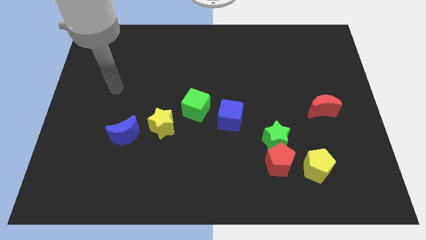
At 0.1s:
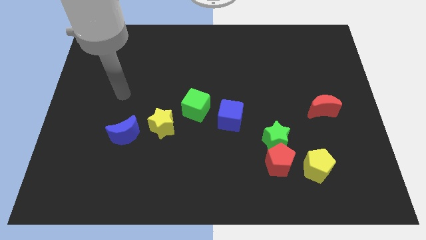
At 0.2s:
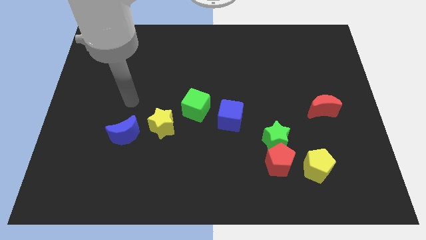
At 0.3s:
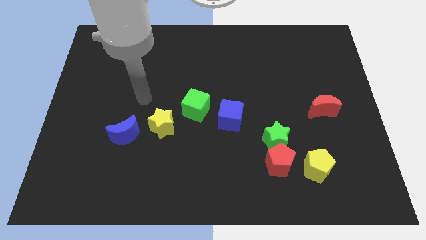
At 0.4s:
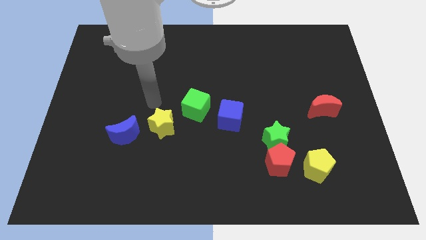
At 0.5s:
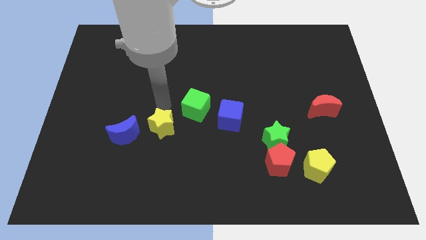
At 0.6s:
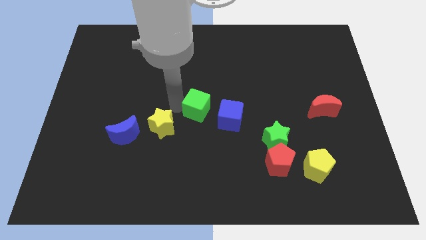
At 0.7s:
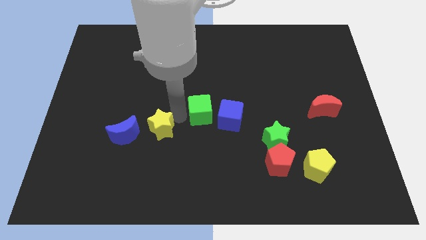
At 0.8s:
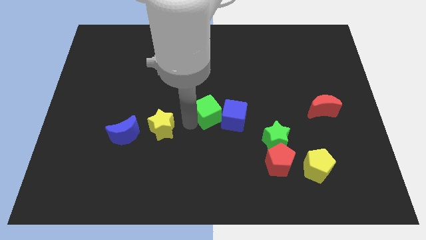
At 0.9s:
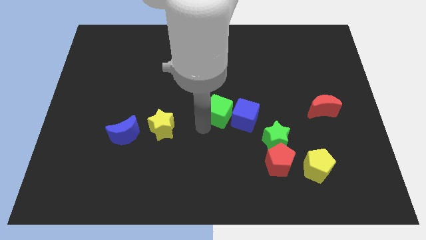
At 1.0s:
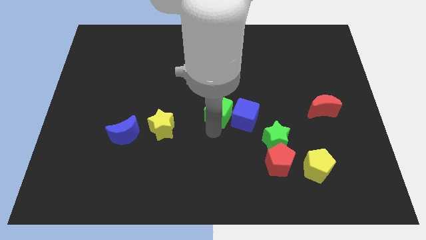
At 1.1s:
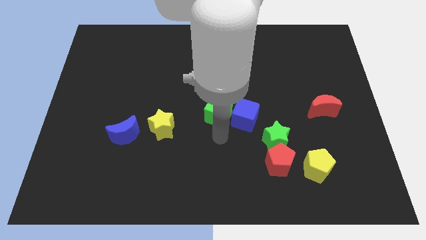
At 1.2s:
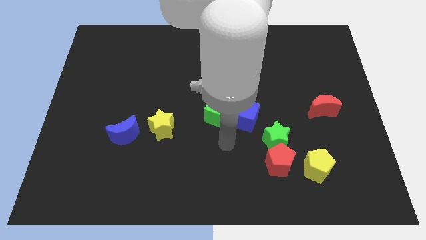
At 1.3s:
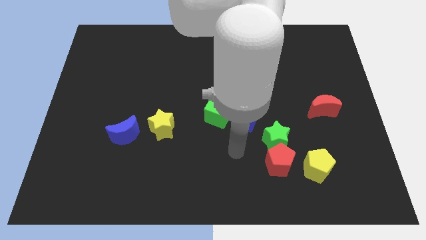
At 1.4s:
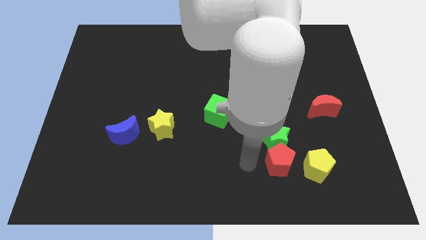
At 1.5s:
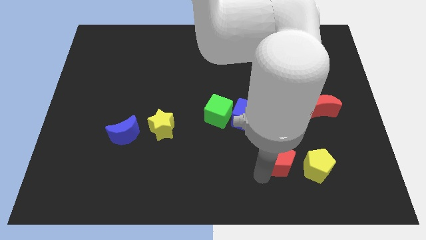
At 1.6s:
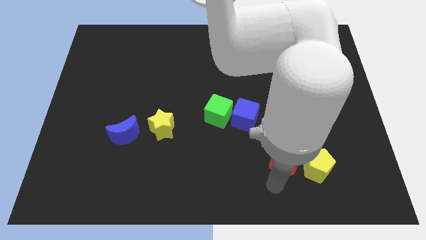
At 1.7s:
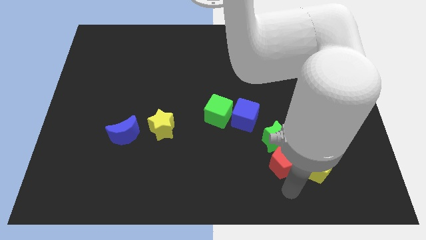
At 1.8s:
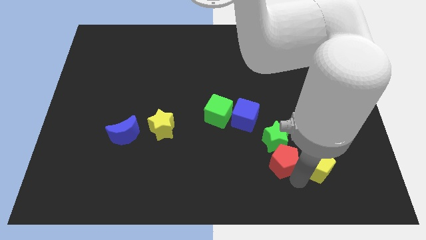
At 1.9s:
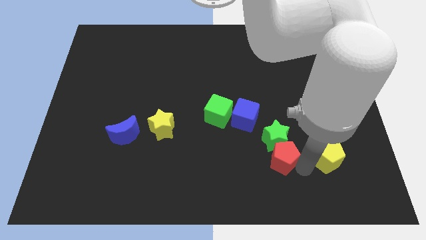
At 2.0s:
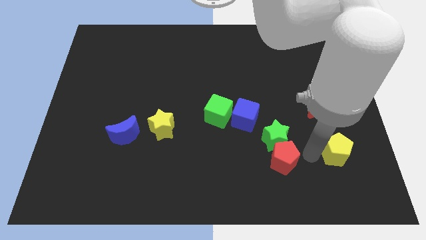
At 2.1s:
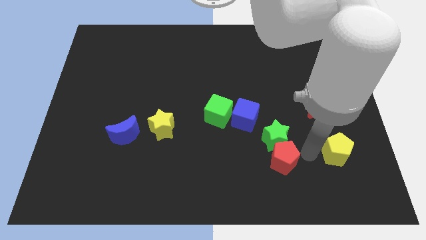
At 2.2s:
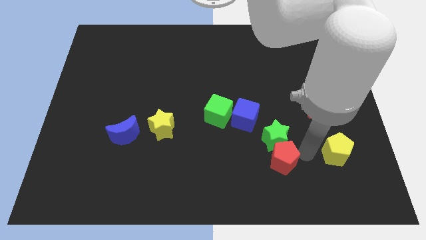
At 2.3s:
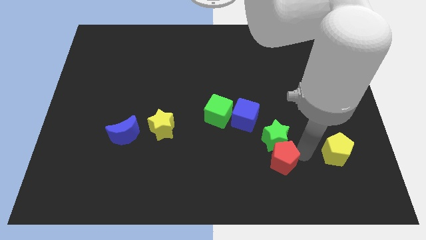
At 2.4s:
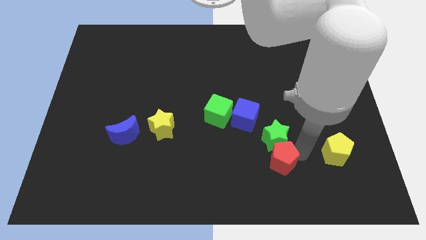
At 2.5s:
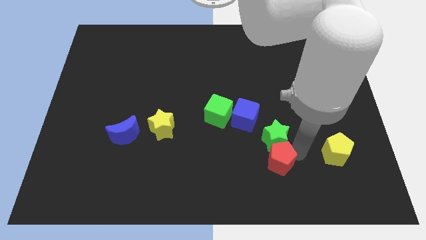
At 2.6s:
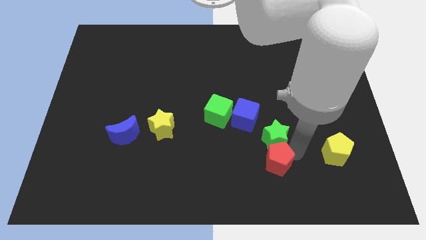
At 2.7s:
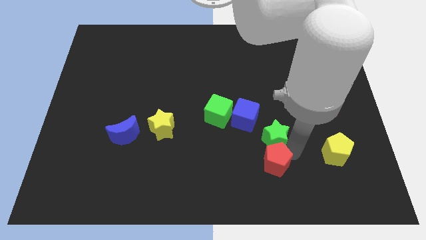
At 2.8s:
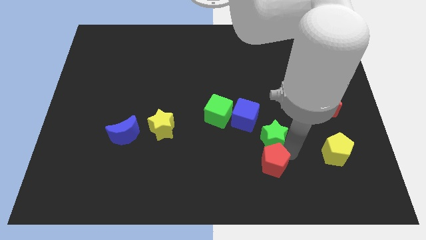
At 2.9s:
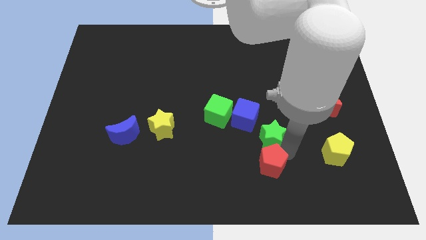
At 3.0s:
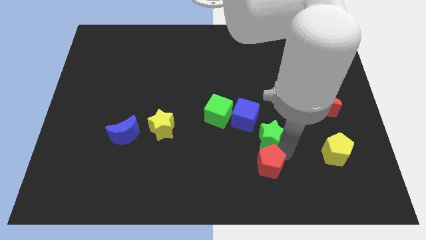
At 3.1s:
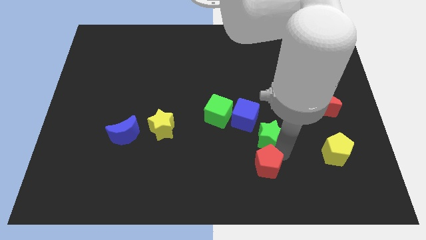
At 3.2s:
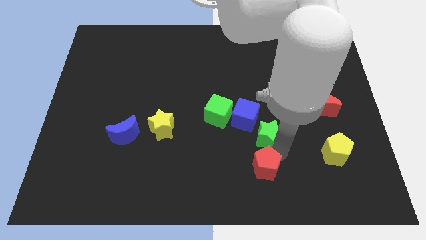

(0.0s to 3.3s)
move the red pentagon away from the green star and yellow pentagon

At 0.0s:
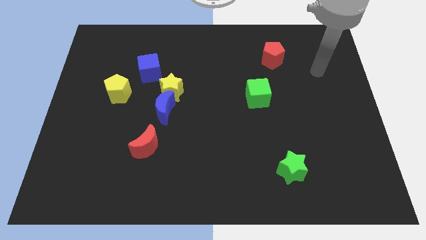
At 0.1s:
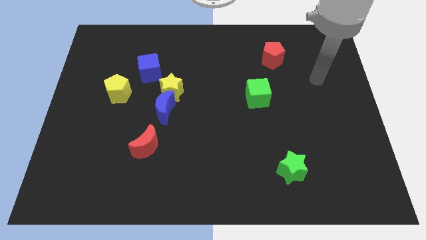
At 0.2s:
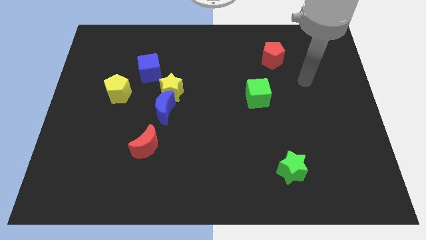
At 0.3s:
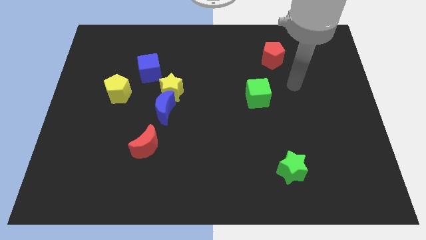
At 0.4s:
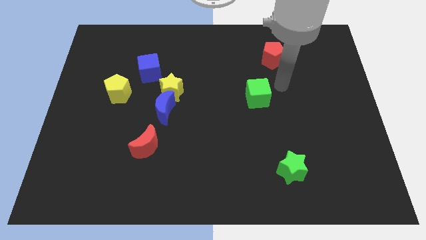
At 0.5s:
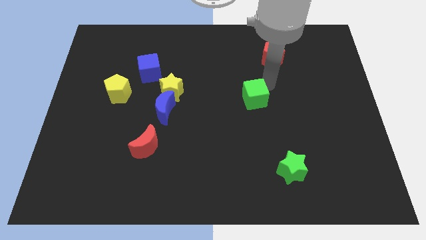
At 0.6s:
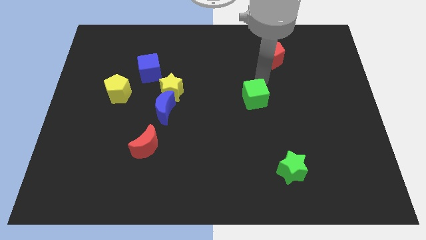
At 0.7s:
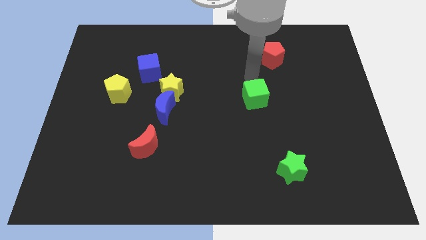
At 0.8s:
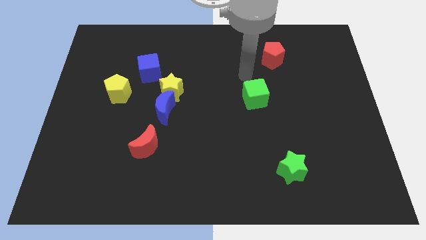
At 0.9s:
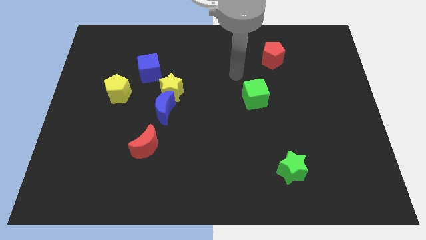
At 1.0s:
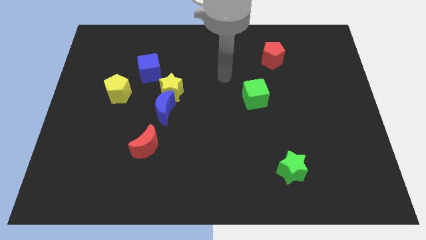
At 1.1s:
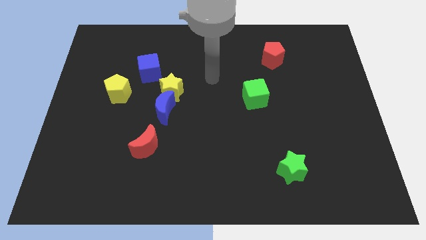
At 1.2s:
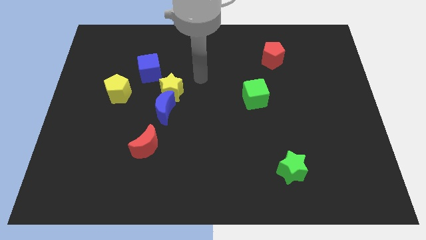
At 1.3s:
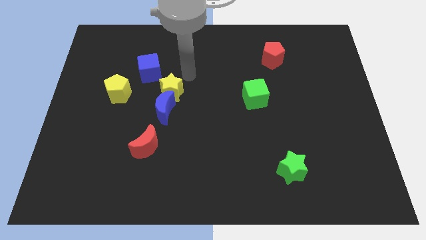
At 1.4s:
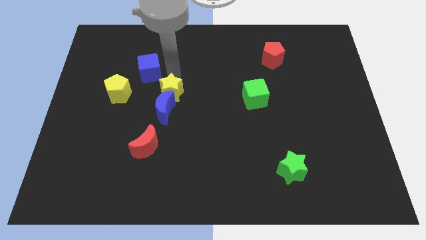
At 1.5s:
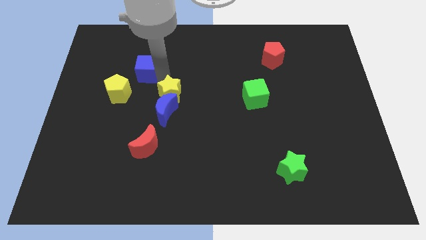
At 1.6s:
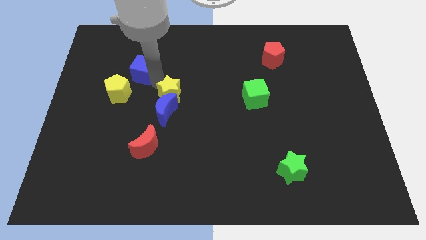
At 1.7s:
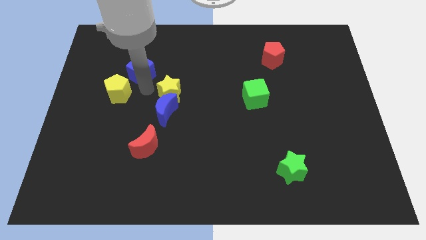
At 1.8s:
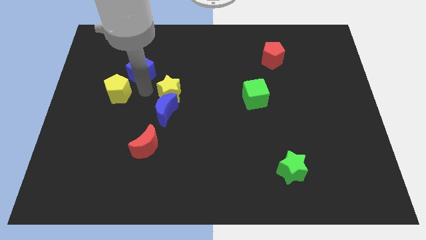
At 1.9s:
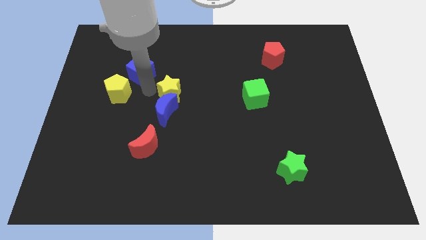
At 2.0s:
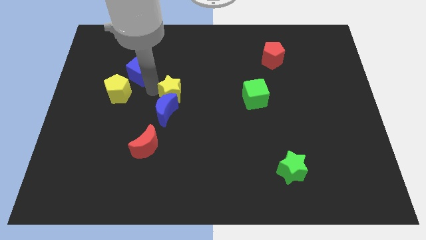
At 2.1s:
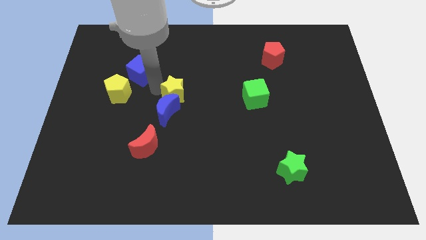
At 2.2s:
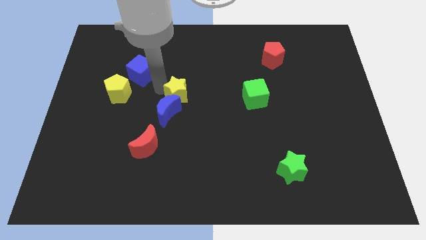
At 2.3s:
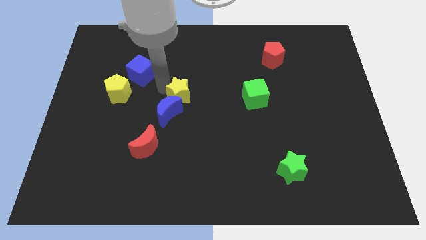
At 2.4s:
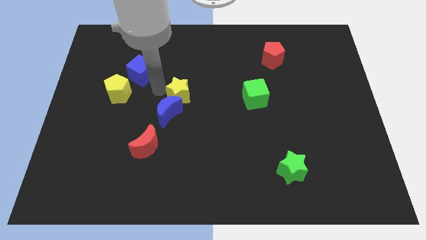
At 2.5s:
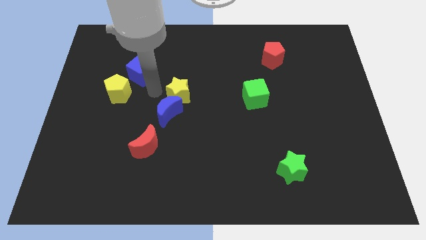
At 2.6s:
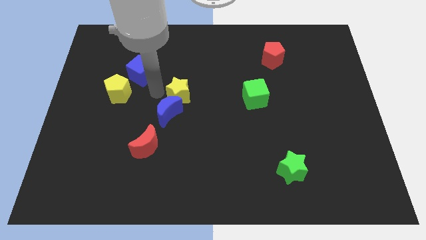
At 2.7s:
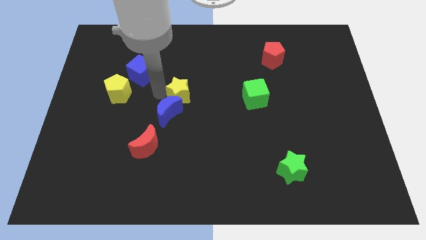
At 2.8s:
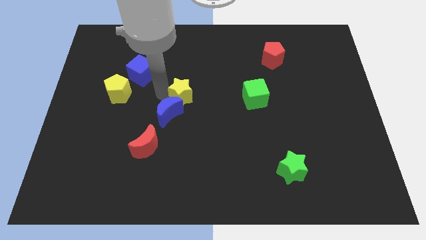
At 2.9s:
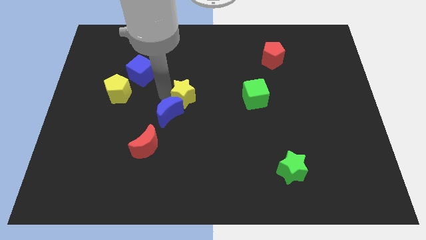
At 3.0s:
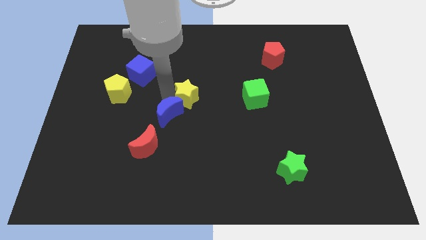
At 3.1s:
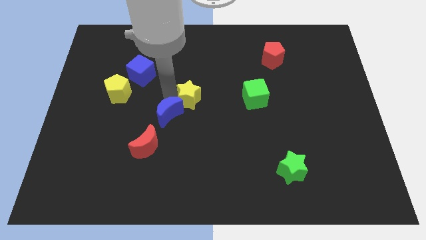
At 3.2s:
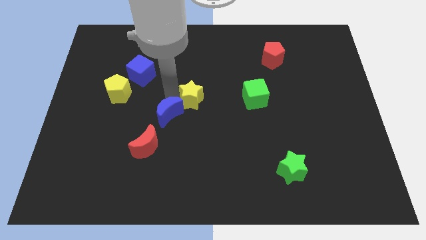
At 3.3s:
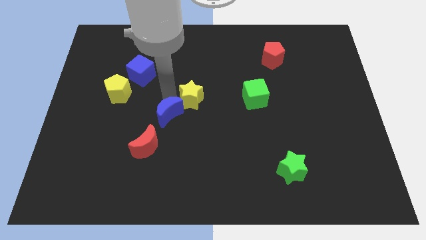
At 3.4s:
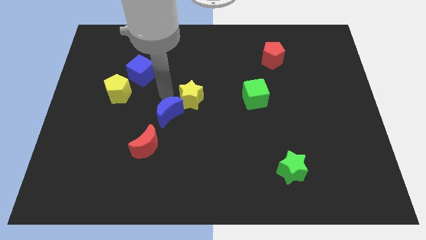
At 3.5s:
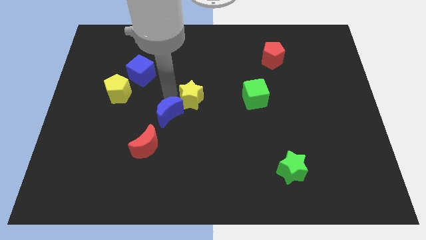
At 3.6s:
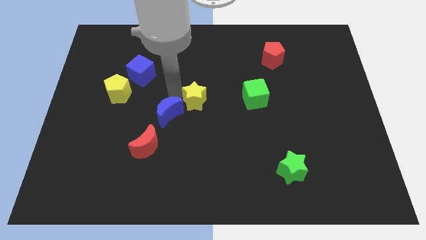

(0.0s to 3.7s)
separate the yellow star from the blue moon and blue cube

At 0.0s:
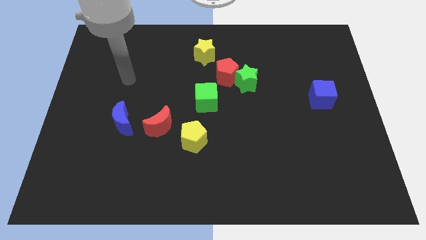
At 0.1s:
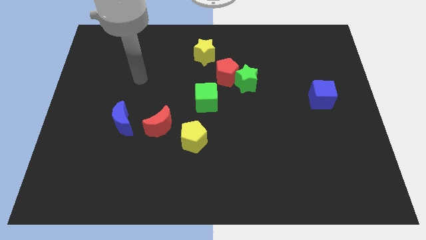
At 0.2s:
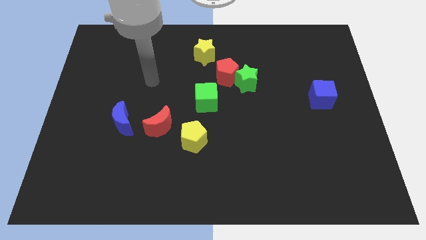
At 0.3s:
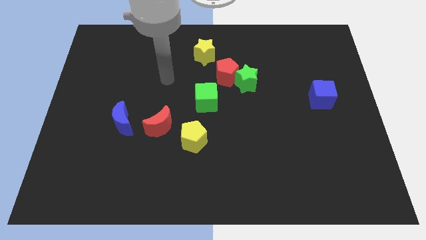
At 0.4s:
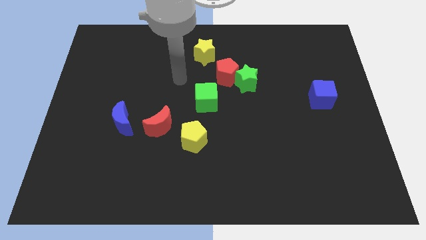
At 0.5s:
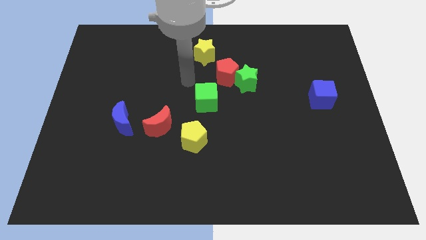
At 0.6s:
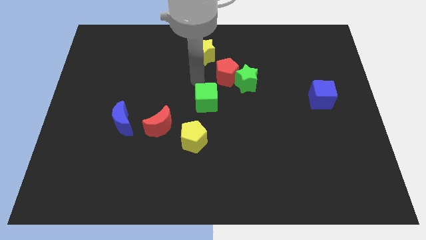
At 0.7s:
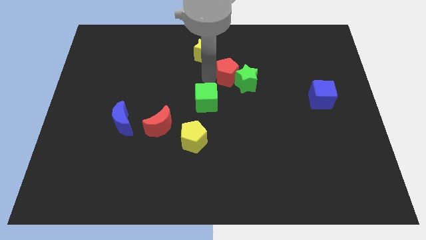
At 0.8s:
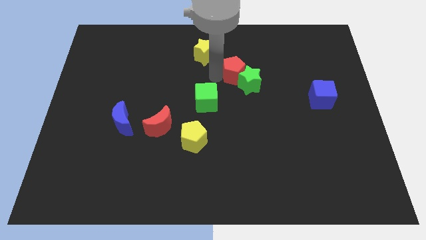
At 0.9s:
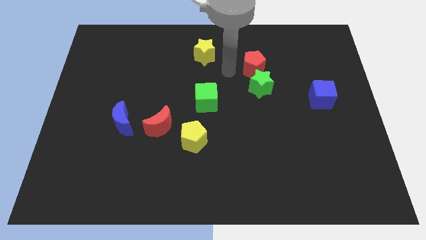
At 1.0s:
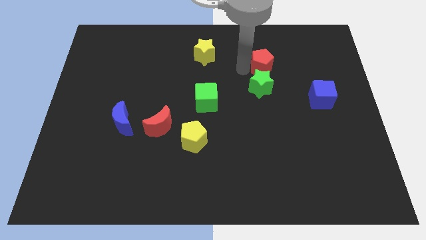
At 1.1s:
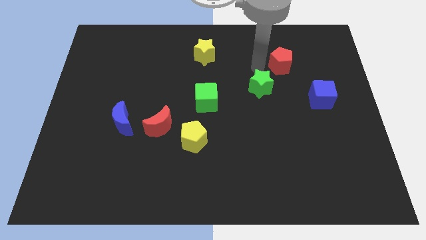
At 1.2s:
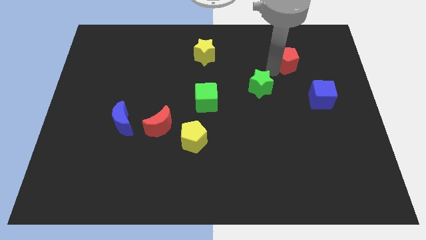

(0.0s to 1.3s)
pull the green star apart from the red pentagon

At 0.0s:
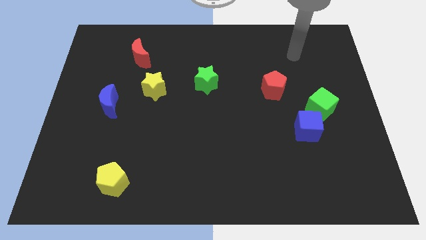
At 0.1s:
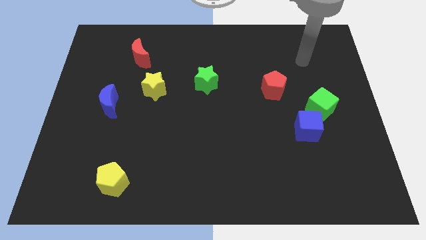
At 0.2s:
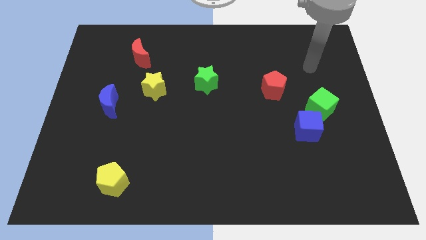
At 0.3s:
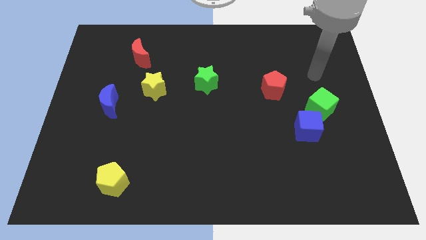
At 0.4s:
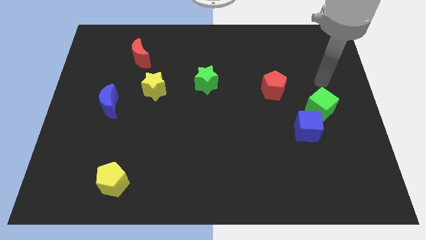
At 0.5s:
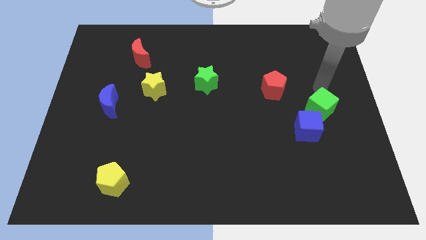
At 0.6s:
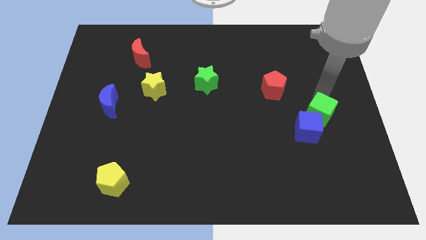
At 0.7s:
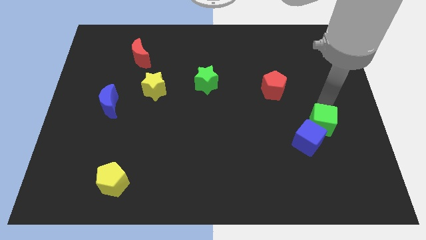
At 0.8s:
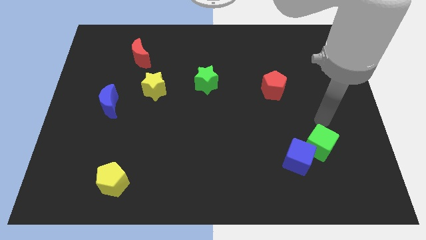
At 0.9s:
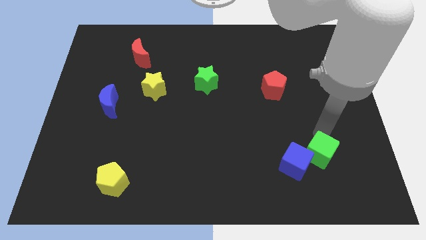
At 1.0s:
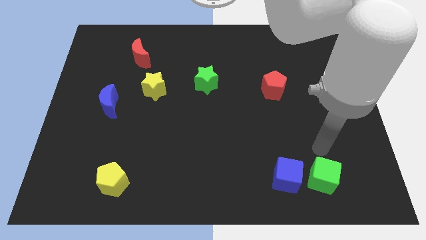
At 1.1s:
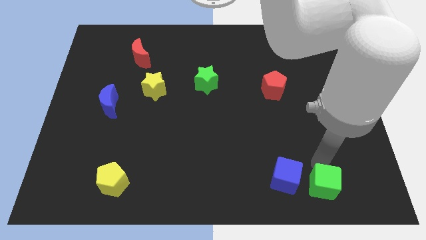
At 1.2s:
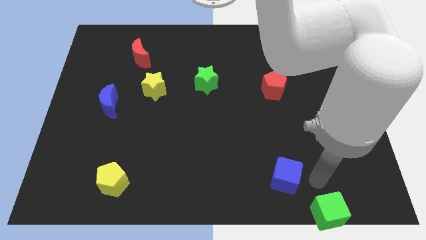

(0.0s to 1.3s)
move the blue cube away from the green cube
